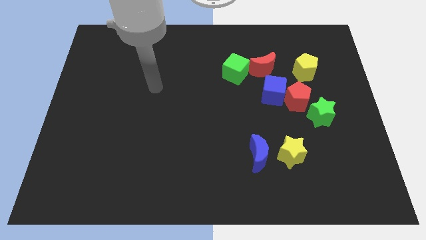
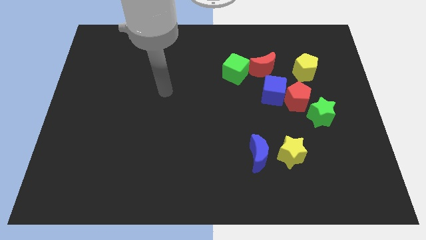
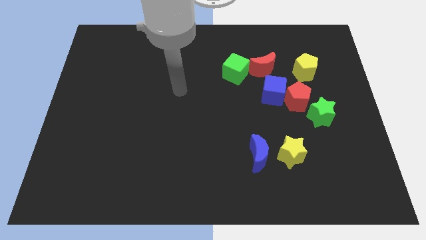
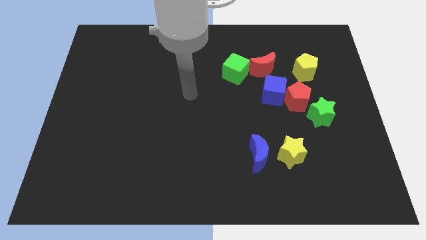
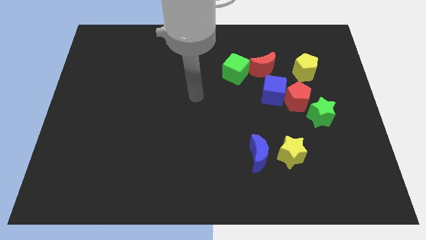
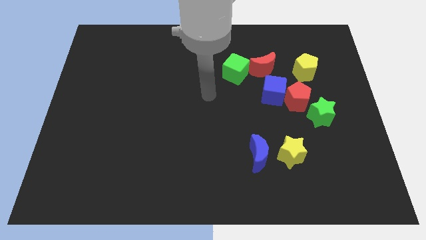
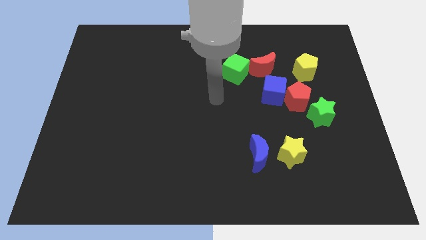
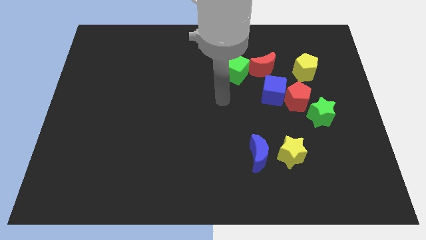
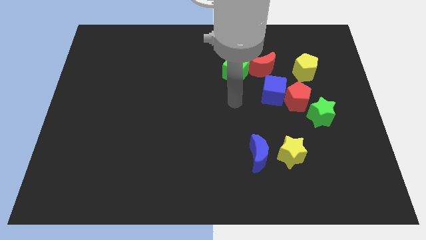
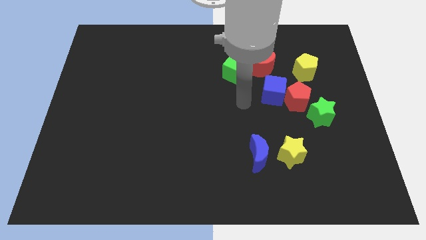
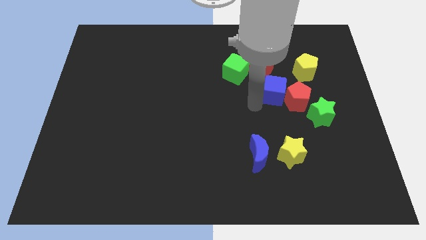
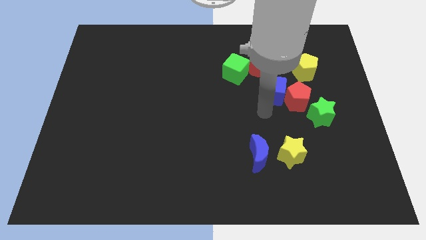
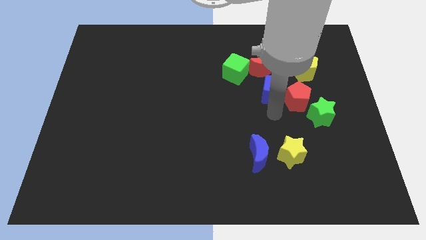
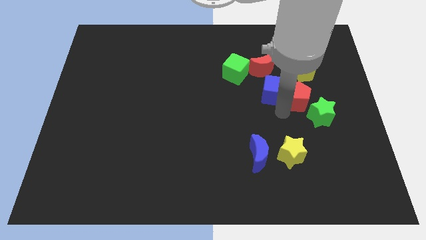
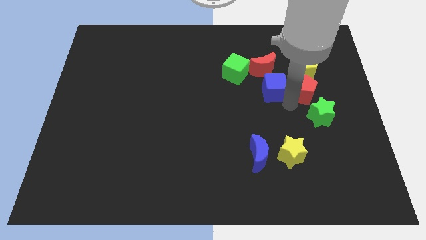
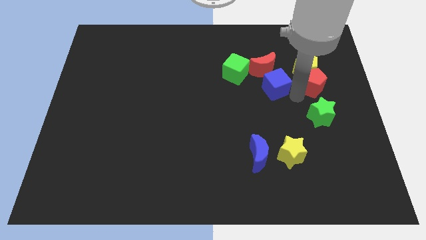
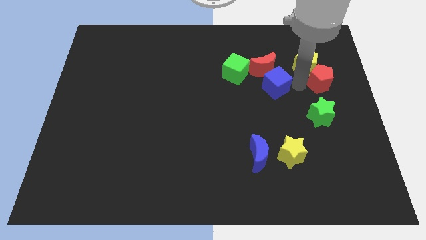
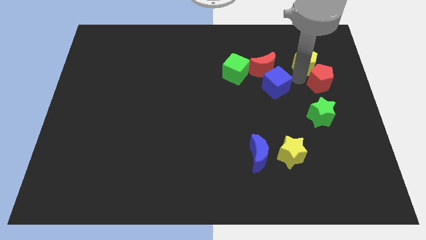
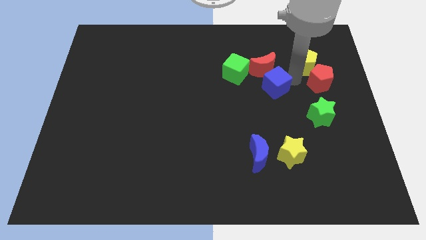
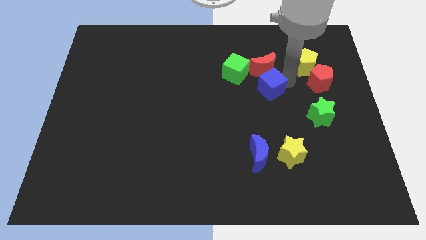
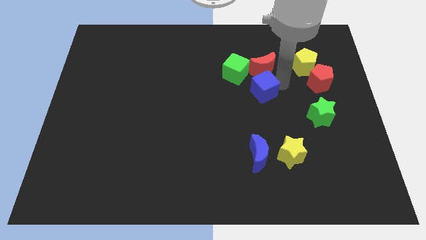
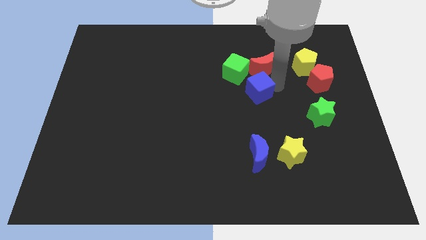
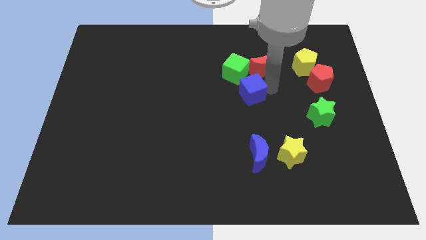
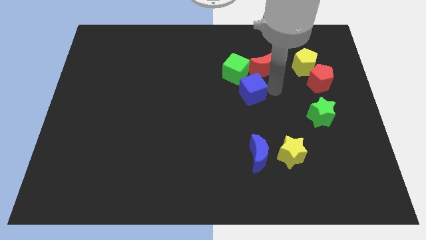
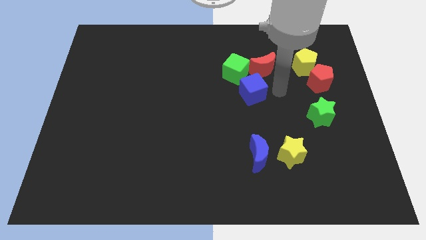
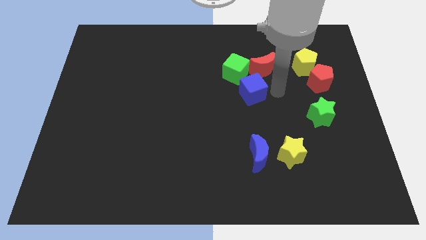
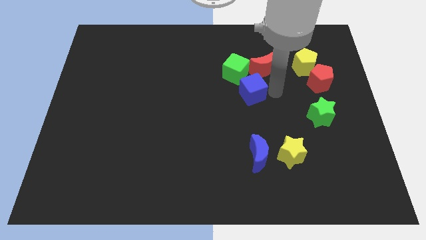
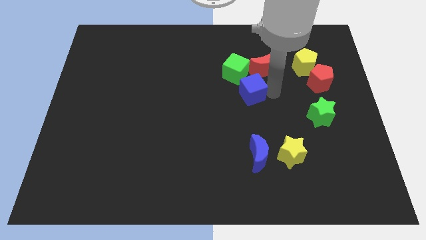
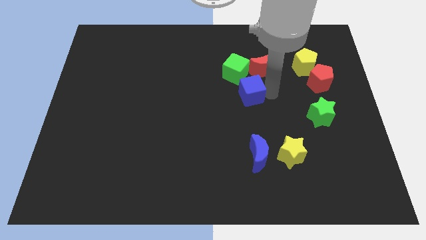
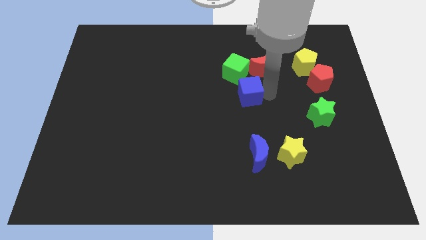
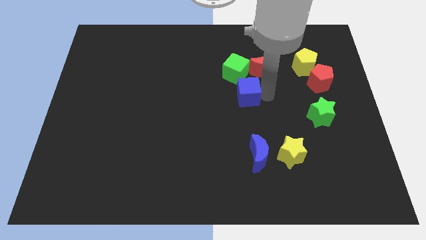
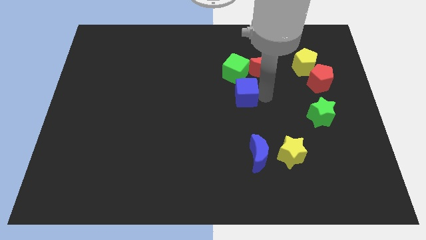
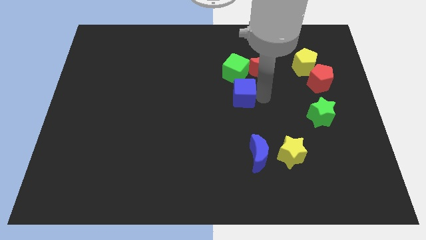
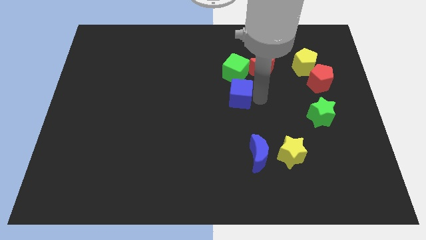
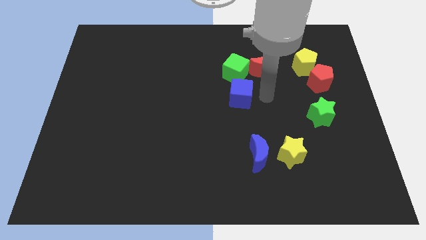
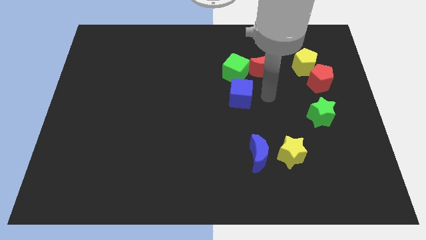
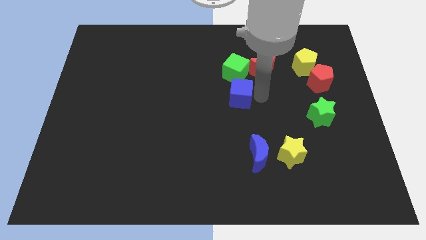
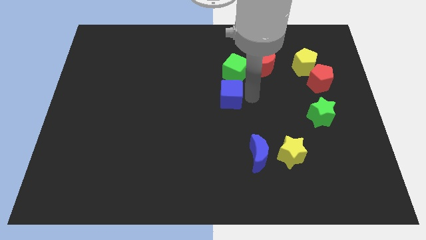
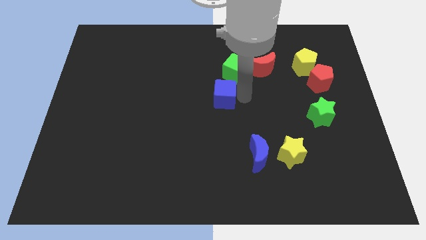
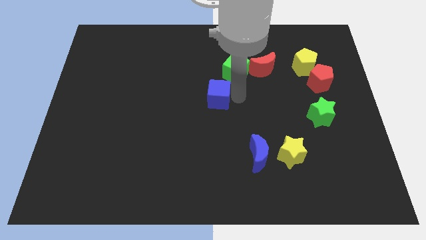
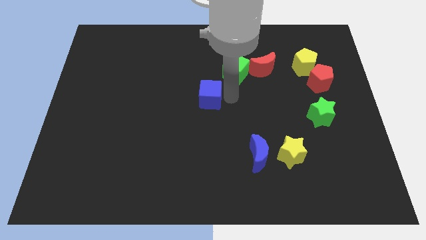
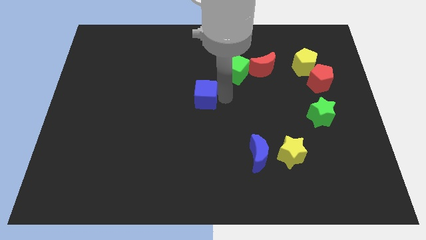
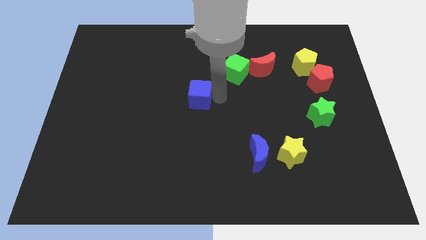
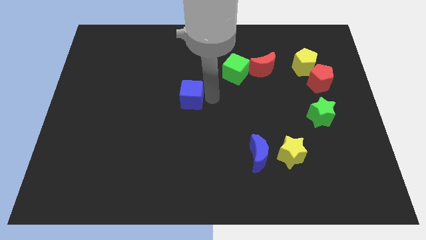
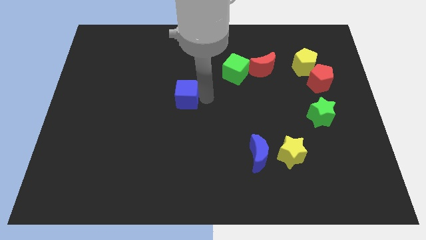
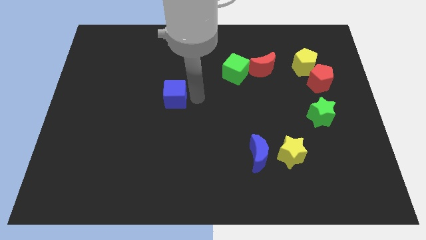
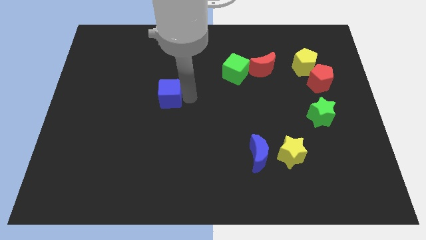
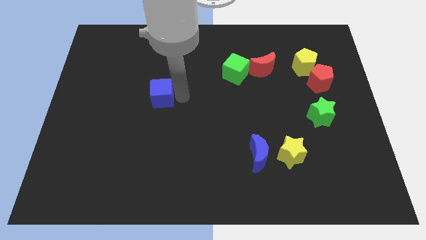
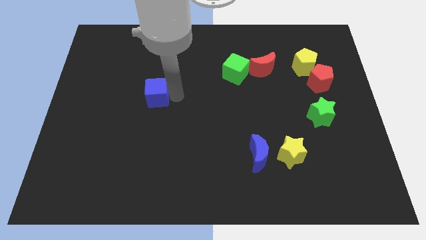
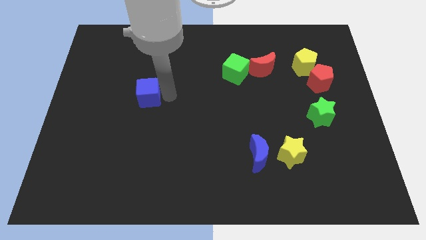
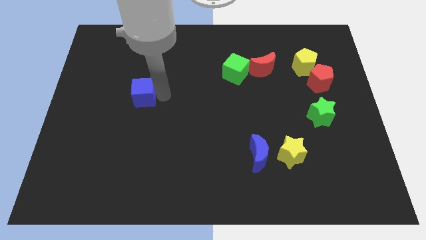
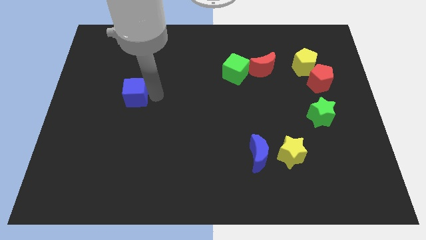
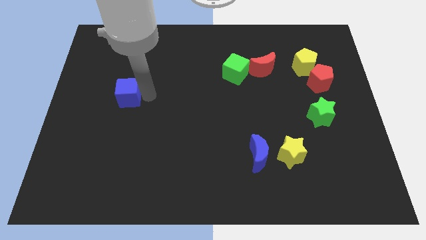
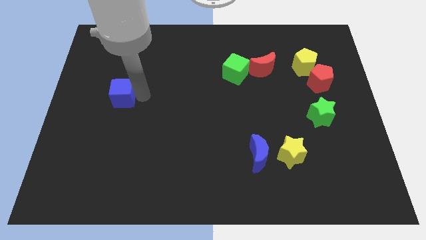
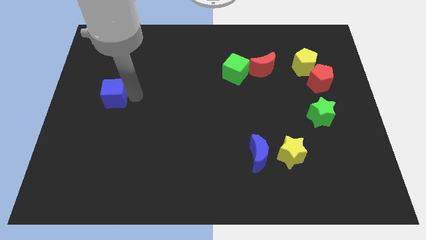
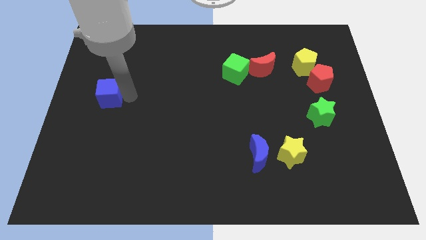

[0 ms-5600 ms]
move the blue cube to the left side of the board

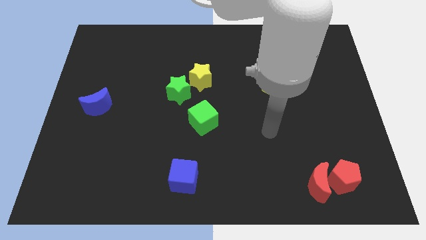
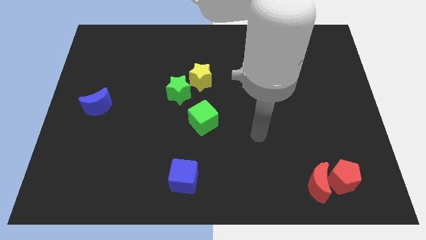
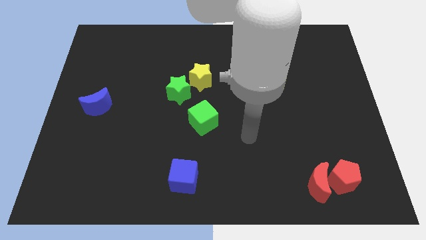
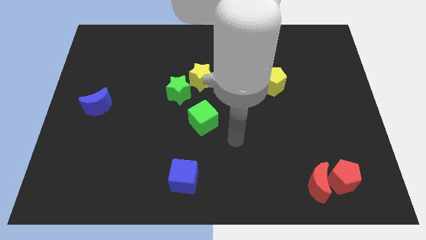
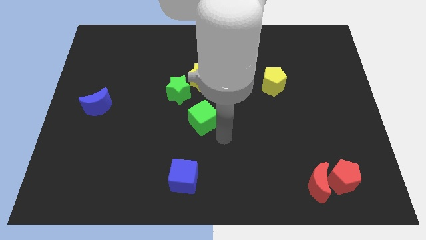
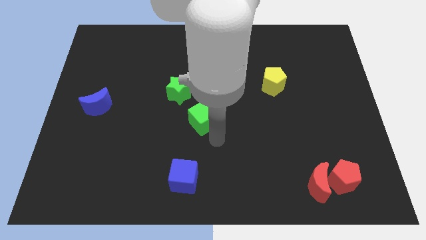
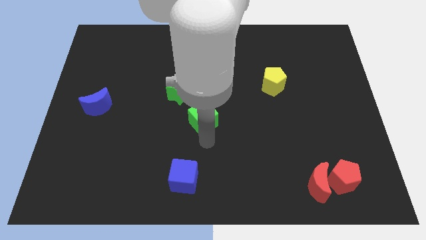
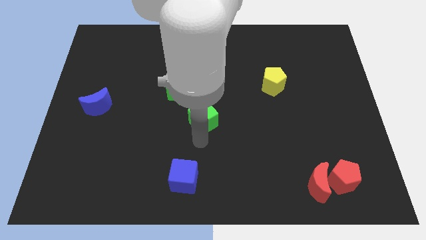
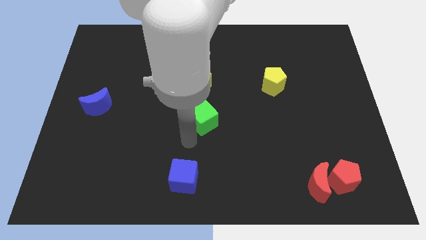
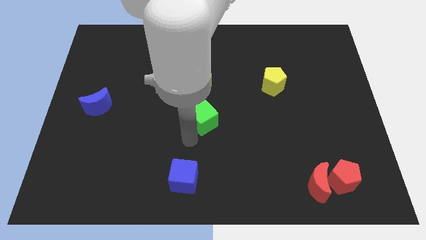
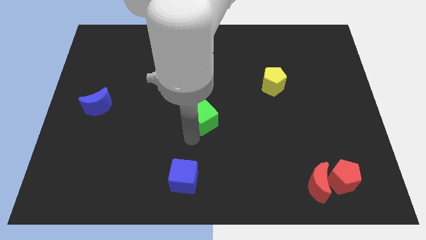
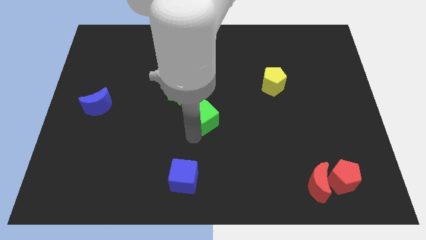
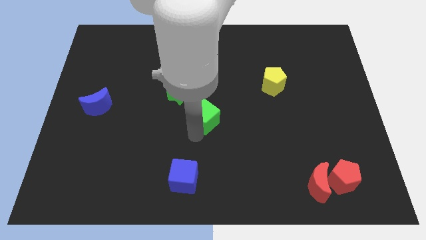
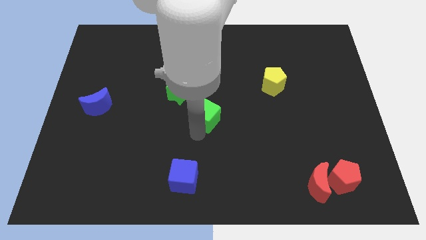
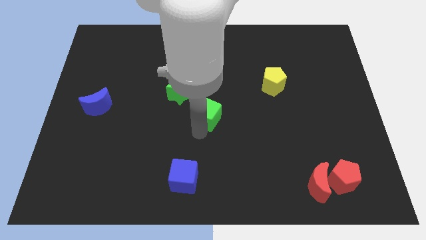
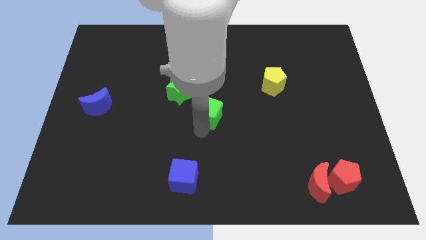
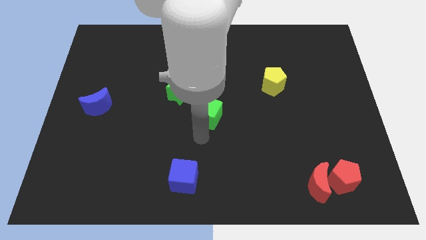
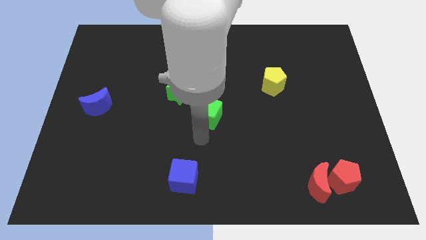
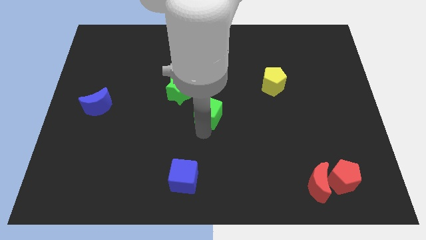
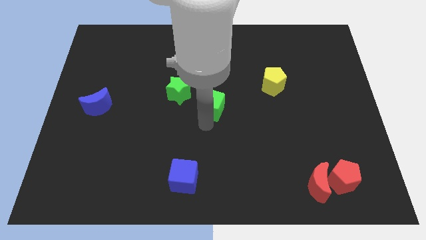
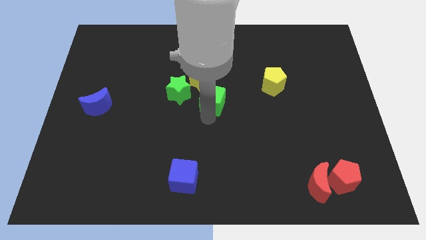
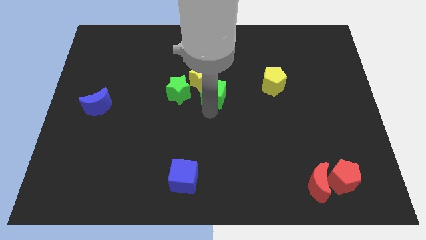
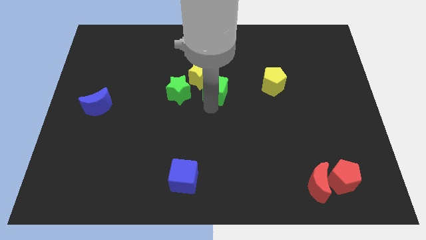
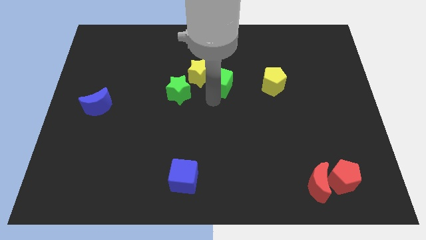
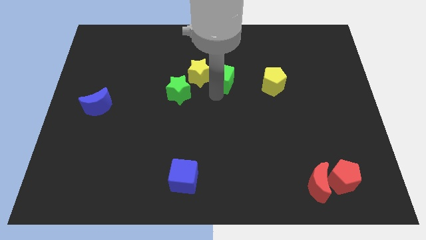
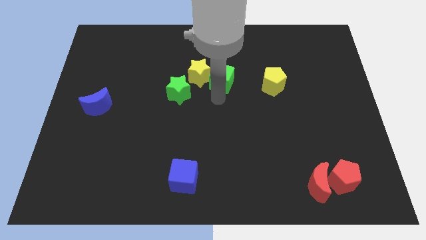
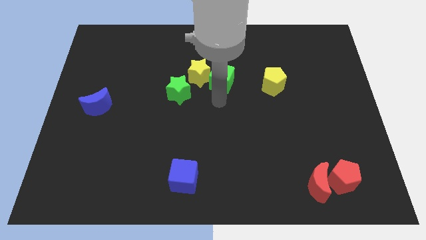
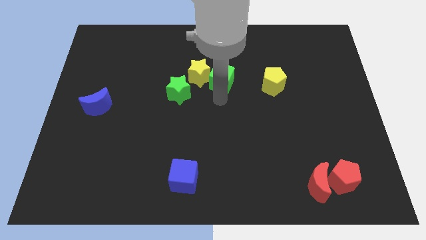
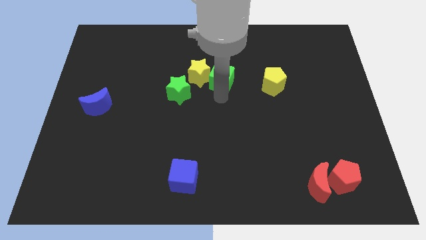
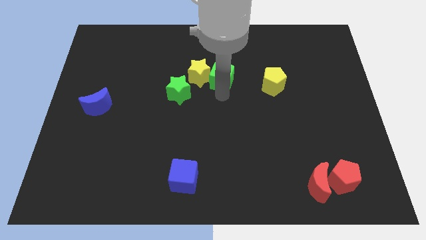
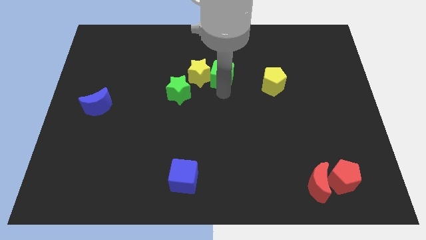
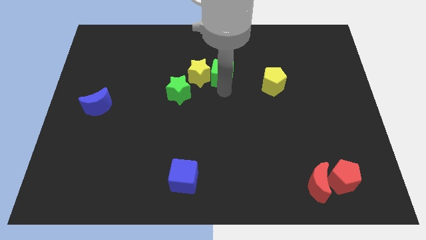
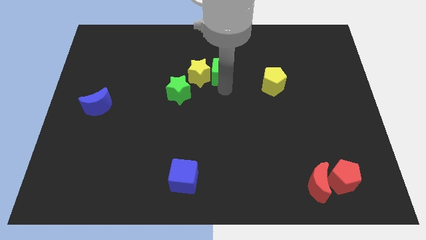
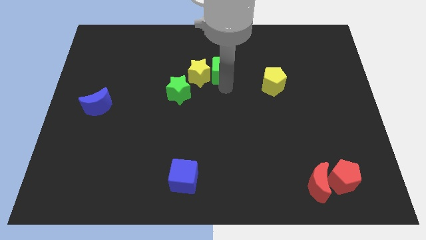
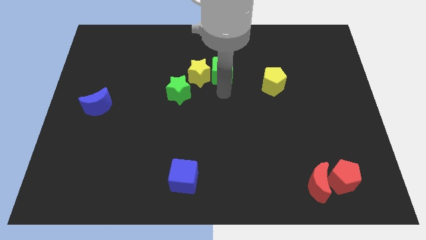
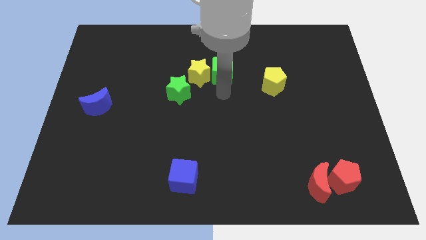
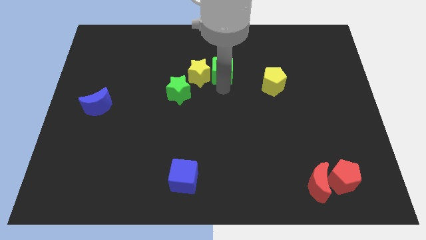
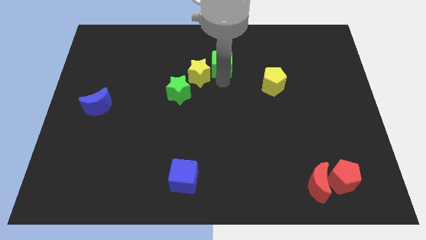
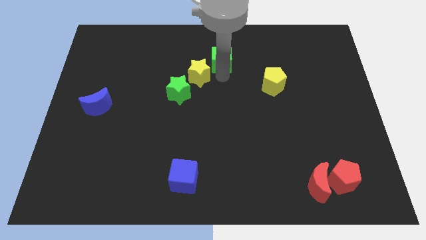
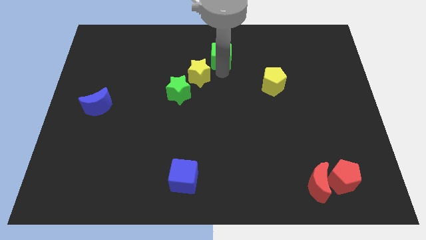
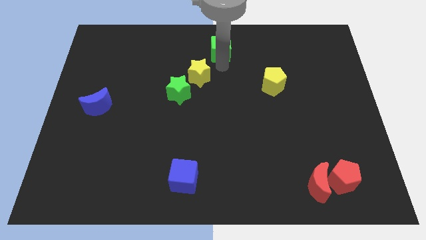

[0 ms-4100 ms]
slide the green cube to the towards your base
